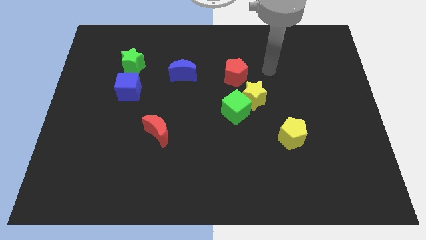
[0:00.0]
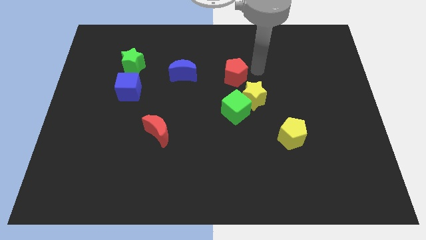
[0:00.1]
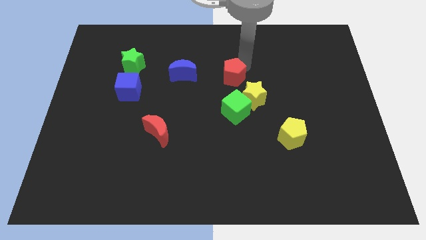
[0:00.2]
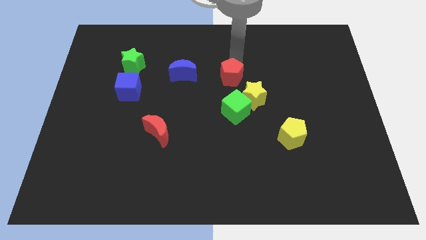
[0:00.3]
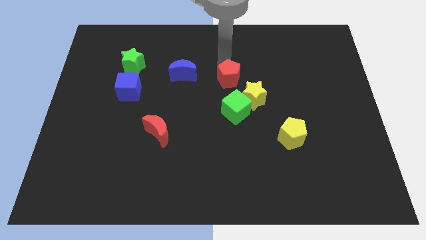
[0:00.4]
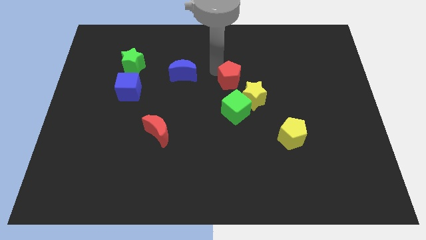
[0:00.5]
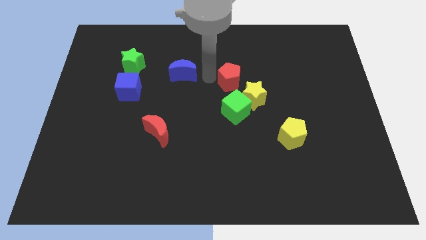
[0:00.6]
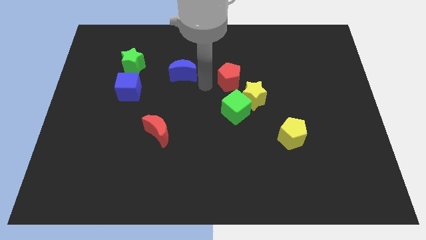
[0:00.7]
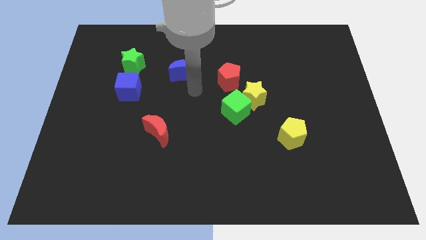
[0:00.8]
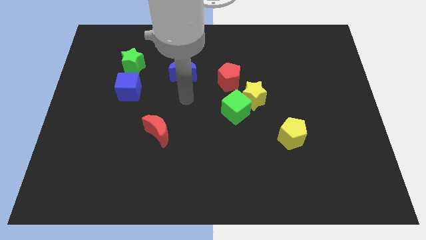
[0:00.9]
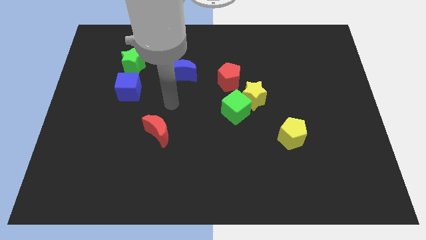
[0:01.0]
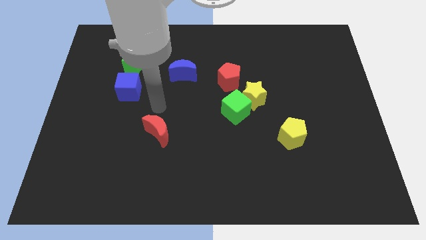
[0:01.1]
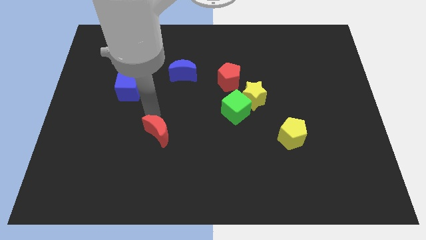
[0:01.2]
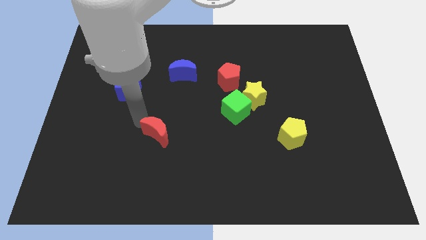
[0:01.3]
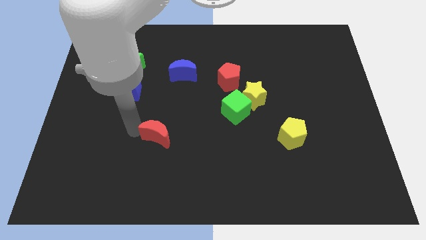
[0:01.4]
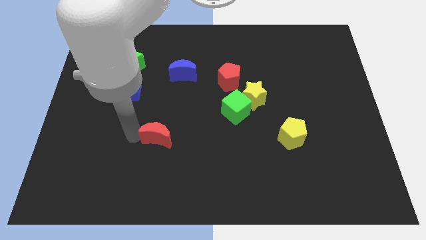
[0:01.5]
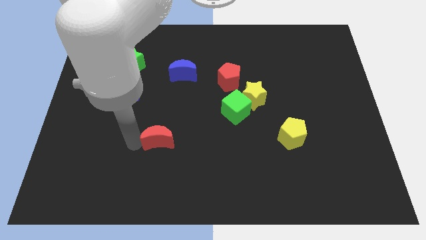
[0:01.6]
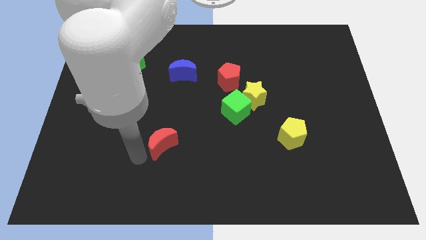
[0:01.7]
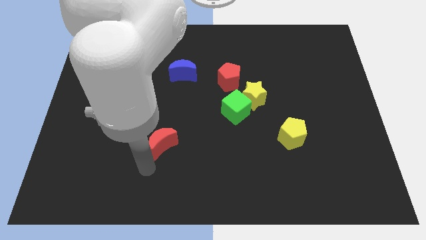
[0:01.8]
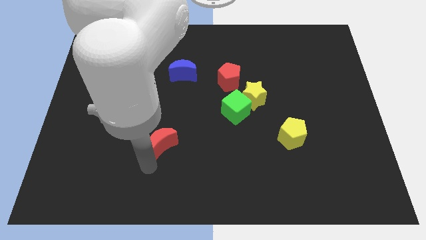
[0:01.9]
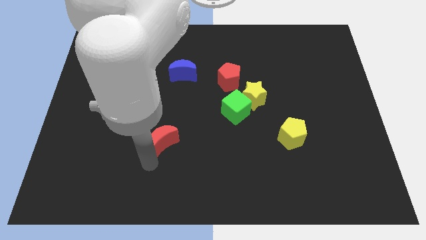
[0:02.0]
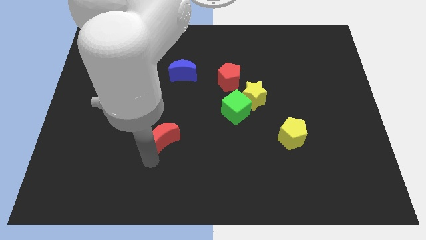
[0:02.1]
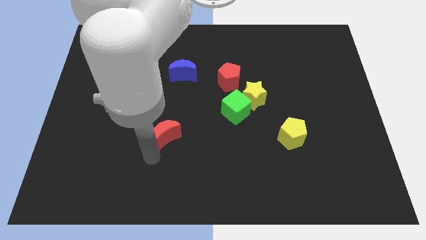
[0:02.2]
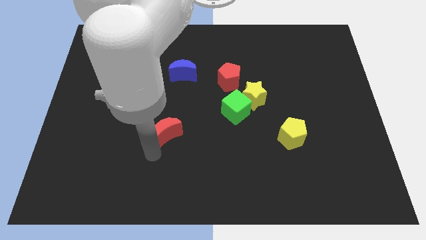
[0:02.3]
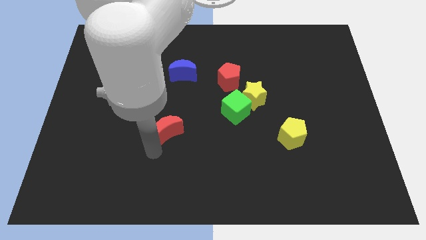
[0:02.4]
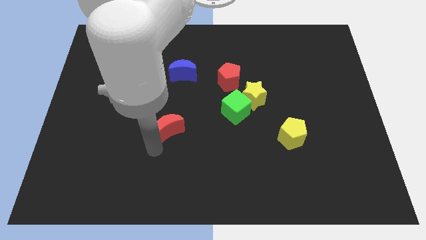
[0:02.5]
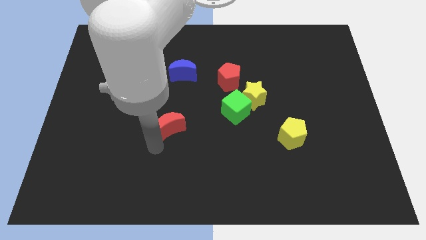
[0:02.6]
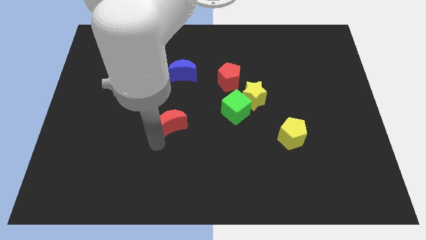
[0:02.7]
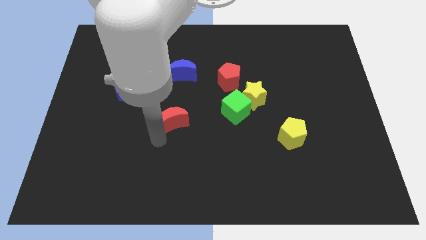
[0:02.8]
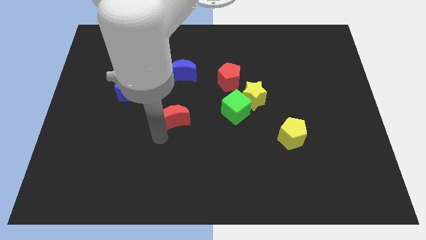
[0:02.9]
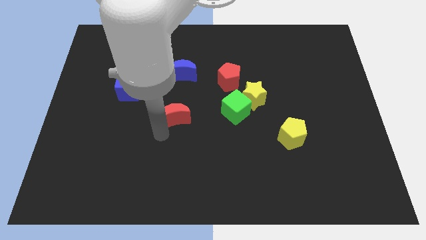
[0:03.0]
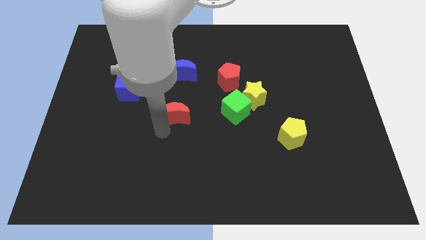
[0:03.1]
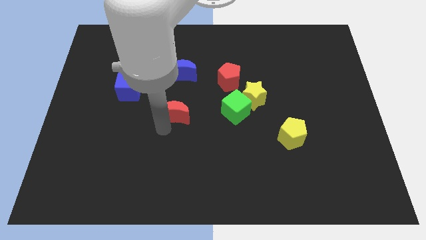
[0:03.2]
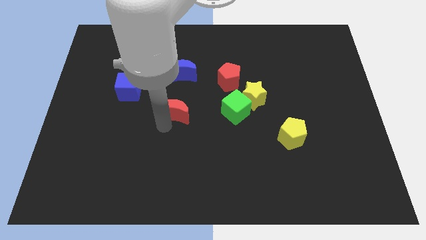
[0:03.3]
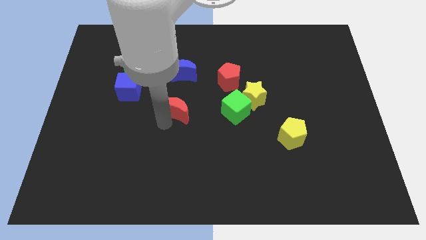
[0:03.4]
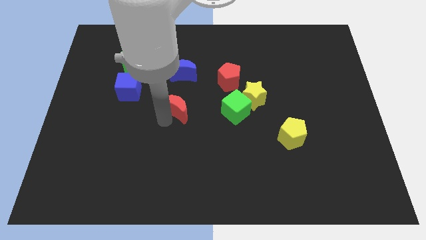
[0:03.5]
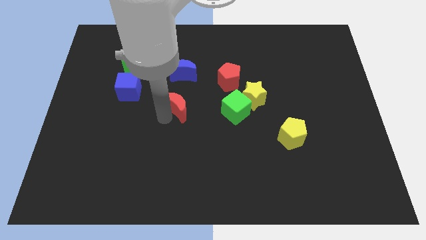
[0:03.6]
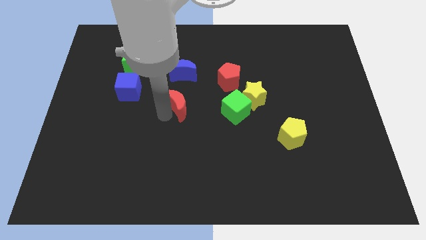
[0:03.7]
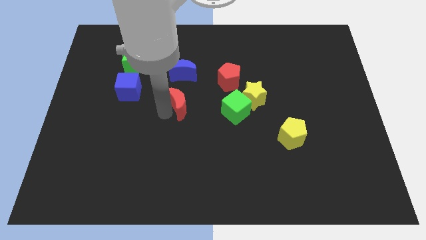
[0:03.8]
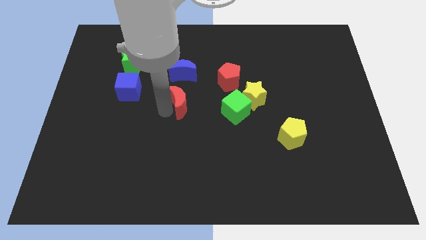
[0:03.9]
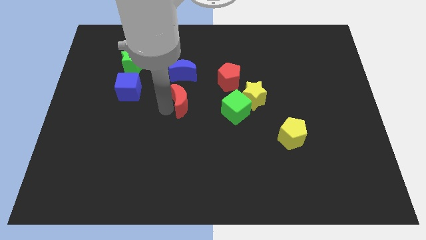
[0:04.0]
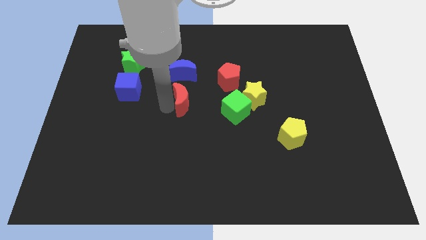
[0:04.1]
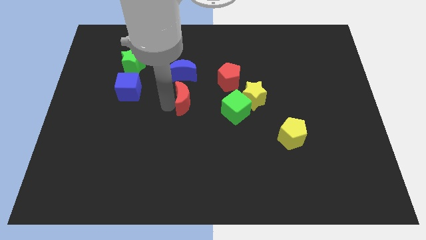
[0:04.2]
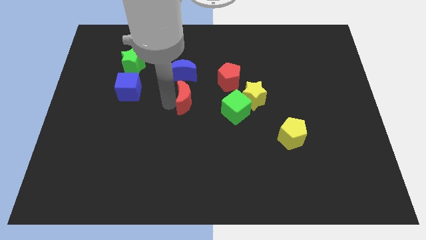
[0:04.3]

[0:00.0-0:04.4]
move the red moon to the bottom left side of the red pentagon

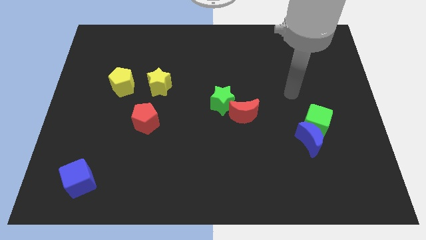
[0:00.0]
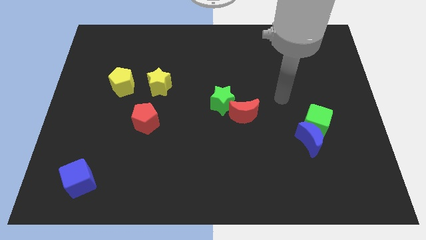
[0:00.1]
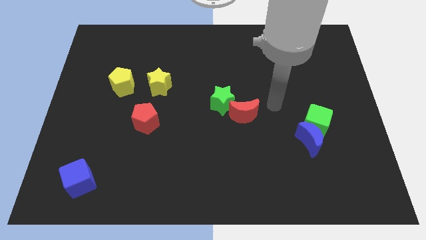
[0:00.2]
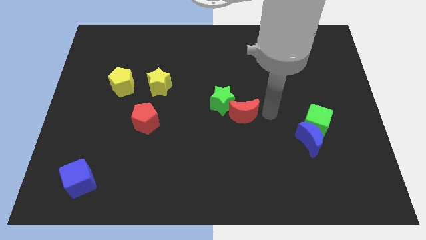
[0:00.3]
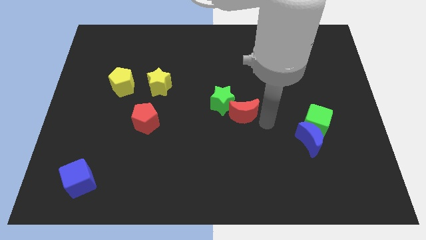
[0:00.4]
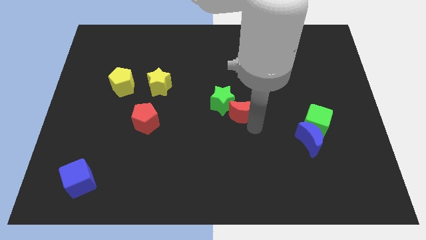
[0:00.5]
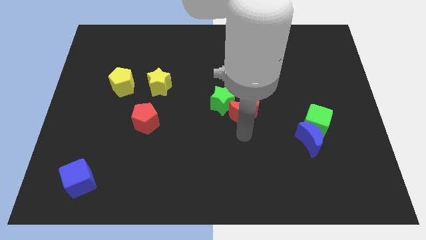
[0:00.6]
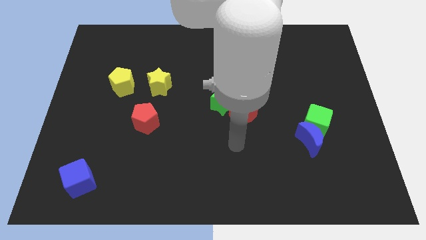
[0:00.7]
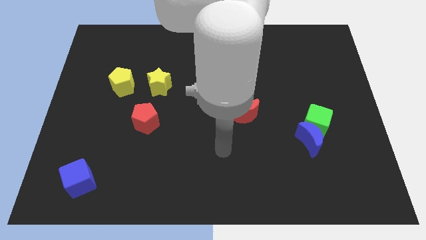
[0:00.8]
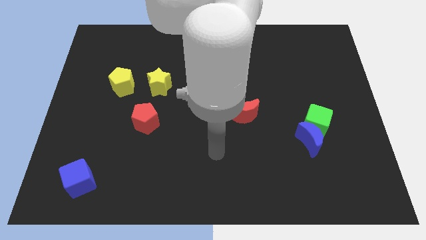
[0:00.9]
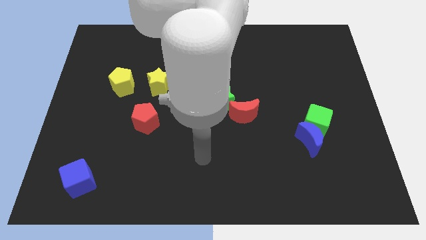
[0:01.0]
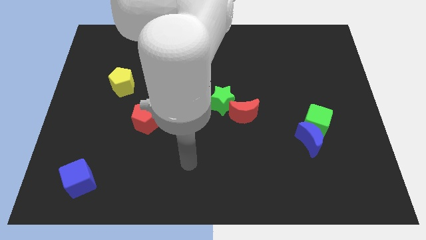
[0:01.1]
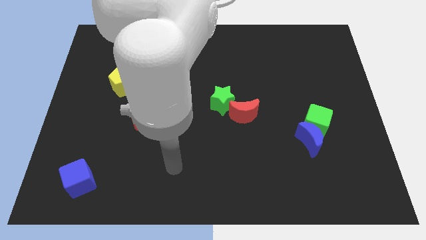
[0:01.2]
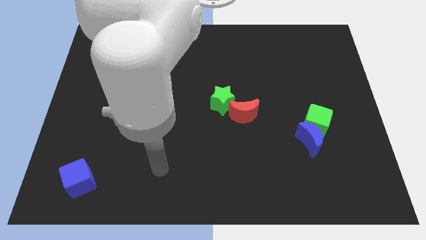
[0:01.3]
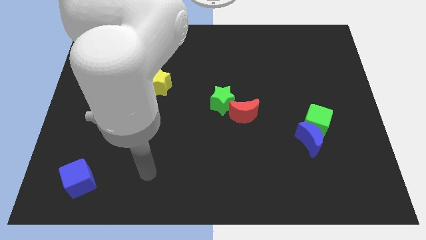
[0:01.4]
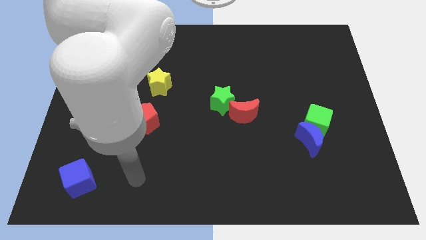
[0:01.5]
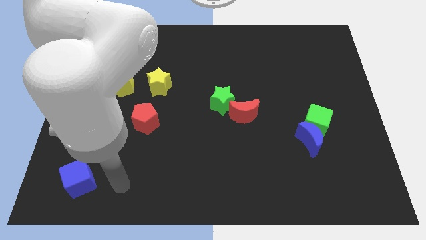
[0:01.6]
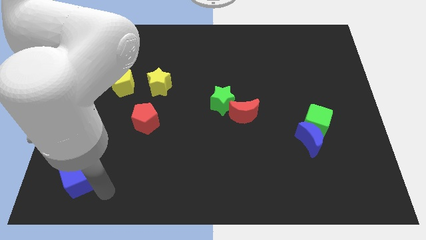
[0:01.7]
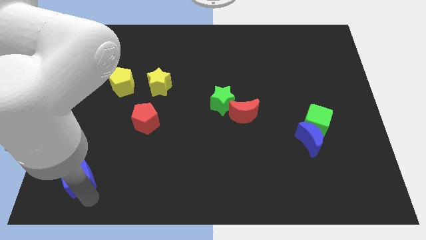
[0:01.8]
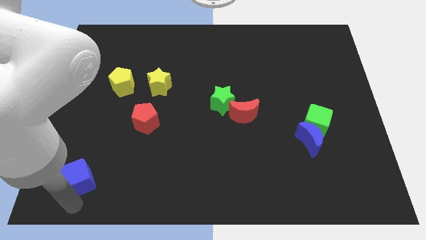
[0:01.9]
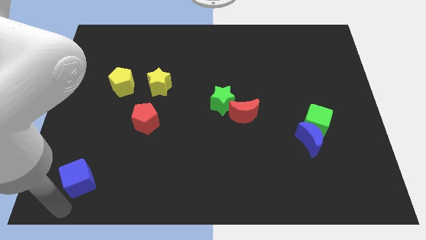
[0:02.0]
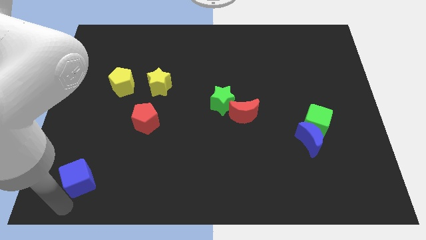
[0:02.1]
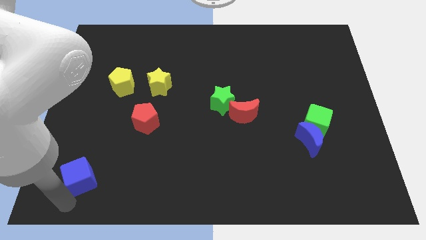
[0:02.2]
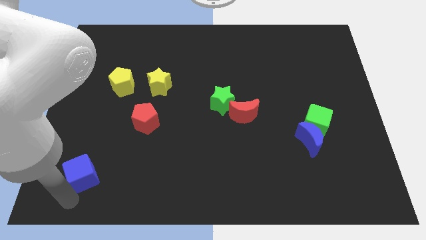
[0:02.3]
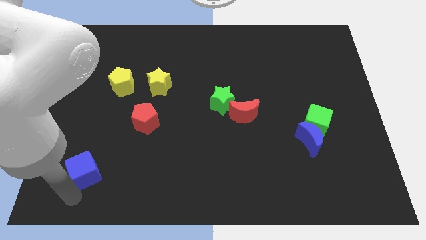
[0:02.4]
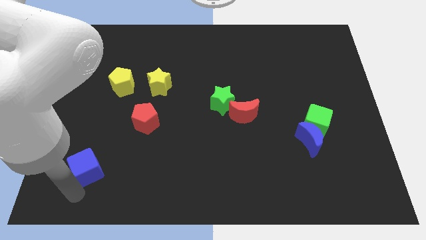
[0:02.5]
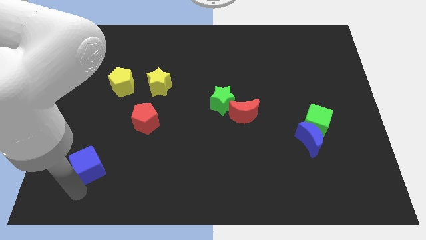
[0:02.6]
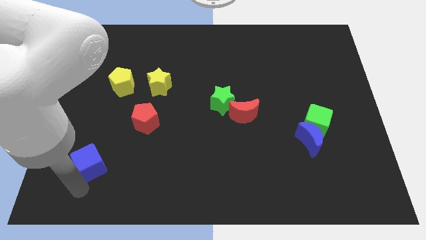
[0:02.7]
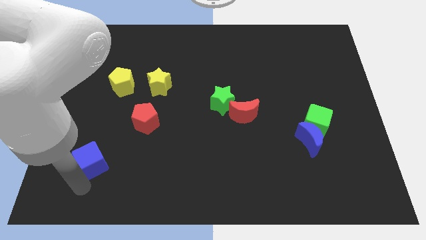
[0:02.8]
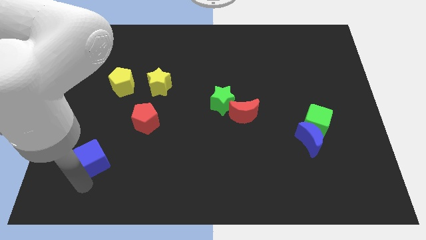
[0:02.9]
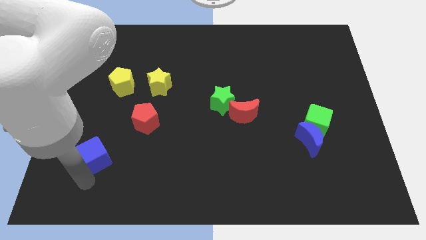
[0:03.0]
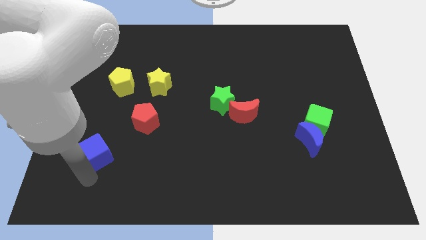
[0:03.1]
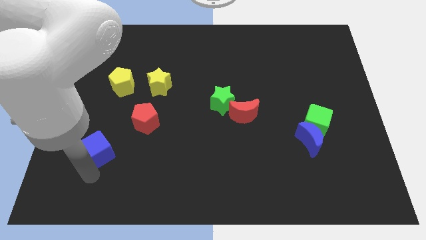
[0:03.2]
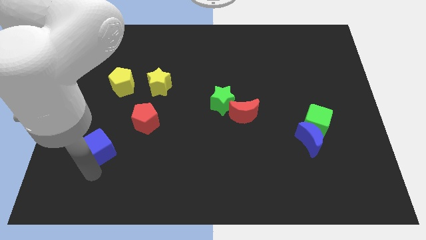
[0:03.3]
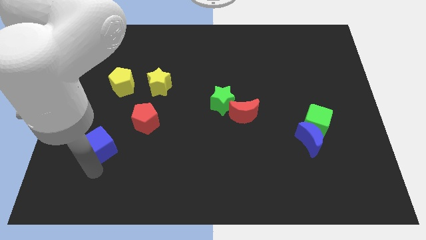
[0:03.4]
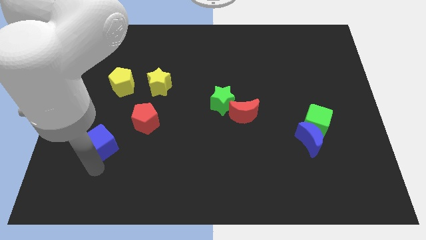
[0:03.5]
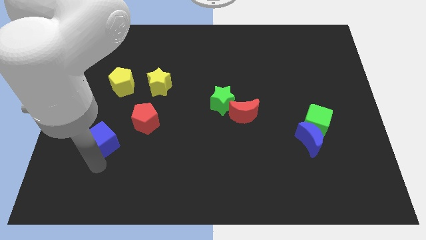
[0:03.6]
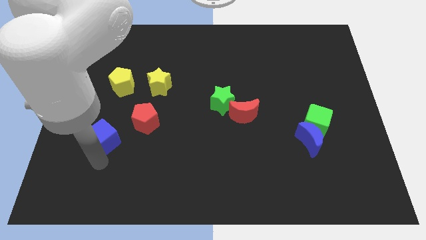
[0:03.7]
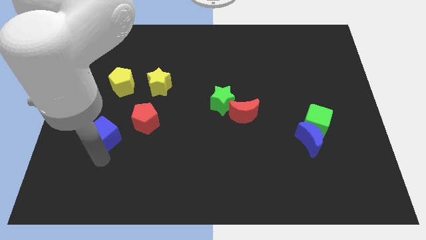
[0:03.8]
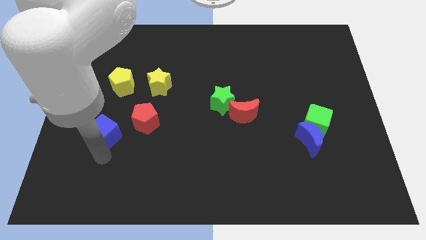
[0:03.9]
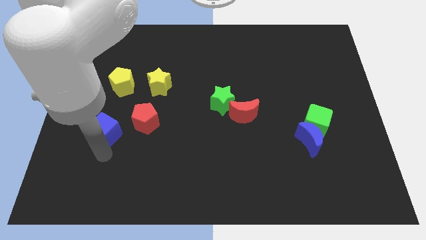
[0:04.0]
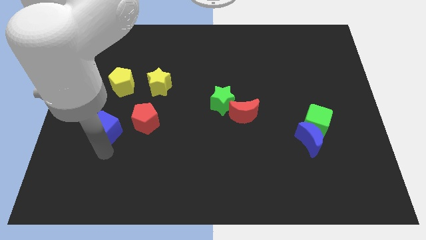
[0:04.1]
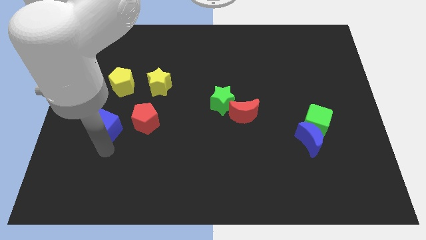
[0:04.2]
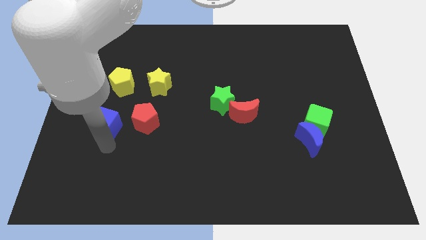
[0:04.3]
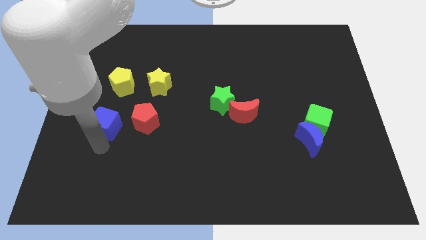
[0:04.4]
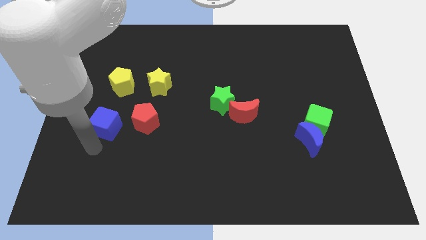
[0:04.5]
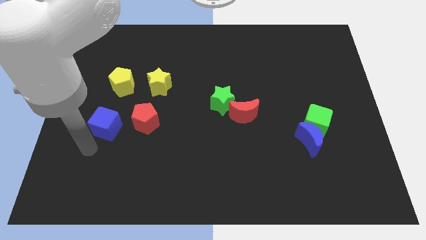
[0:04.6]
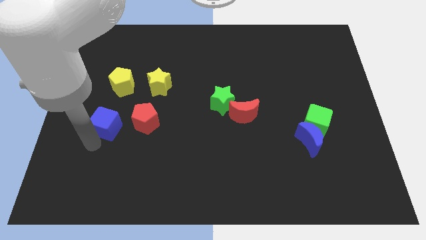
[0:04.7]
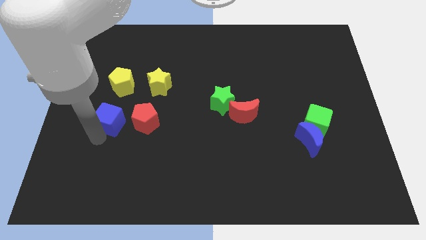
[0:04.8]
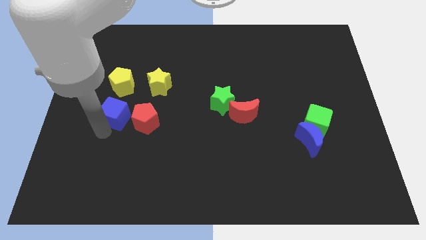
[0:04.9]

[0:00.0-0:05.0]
push the blue cube to the top left side of the red pentagon
